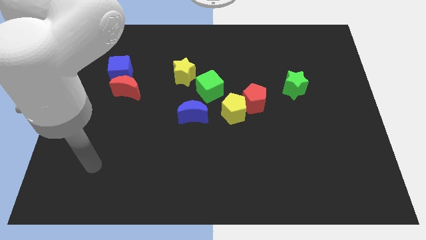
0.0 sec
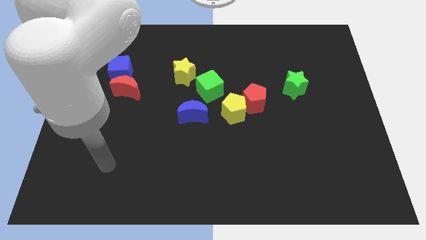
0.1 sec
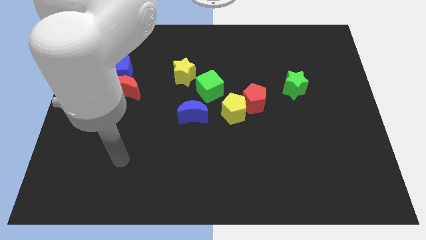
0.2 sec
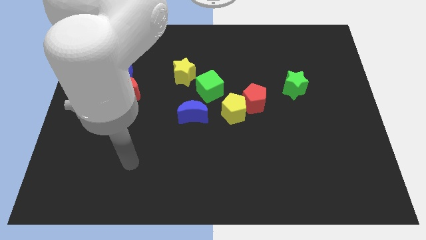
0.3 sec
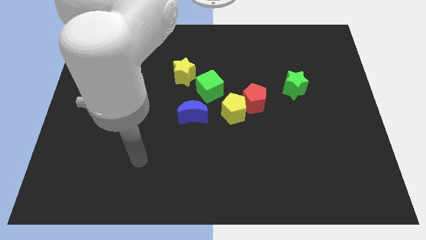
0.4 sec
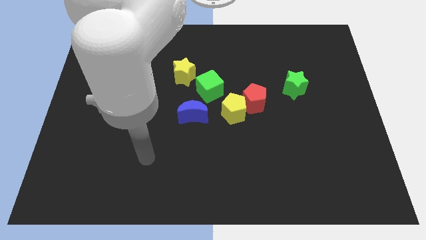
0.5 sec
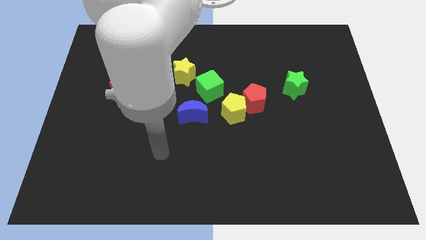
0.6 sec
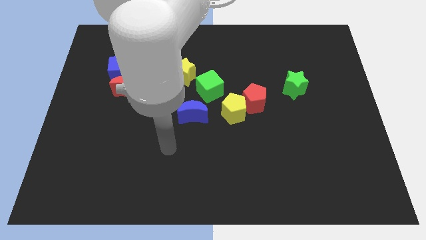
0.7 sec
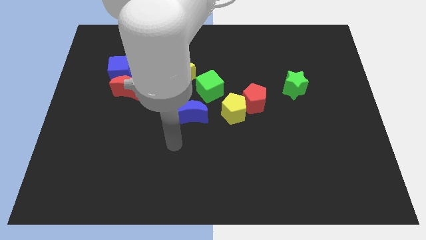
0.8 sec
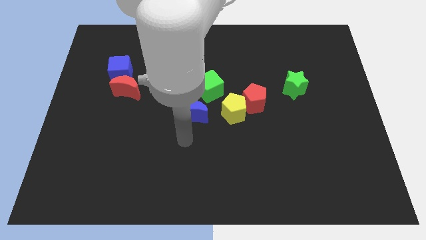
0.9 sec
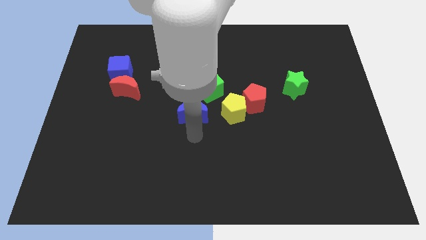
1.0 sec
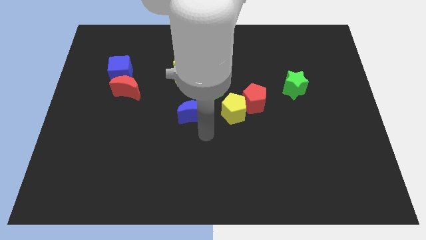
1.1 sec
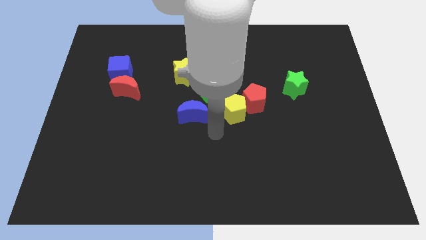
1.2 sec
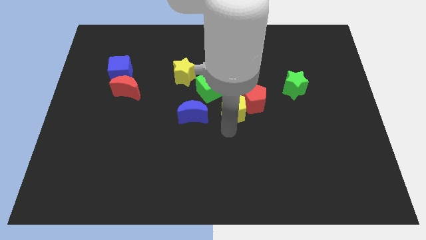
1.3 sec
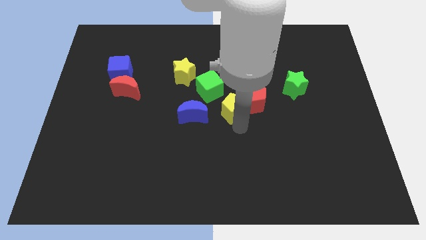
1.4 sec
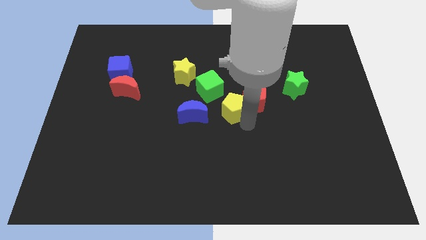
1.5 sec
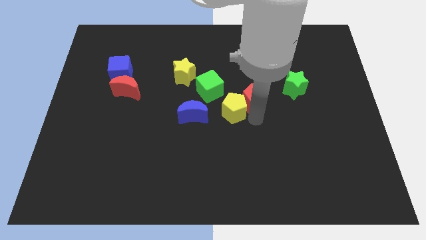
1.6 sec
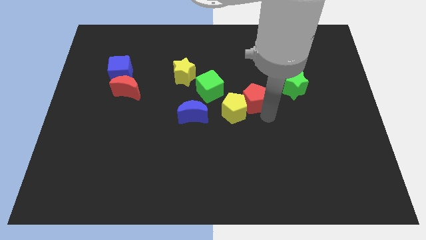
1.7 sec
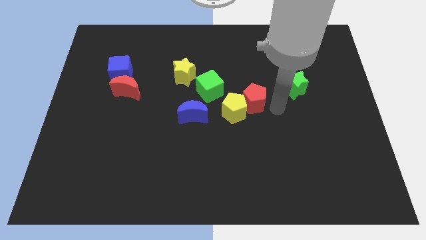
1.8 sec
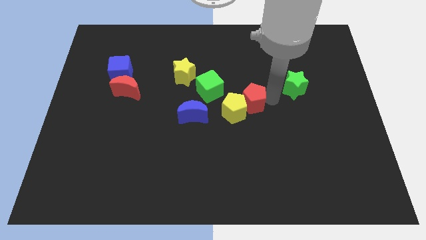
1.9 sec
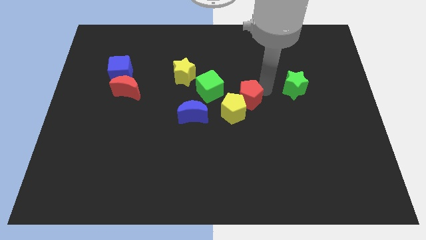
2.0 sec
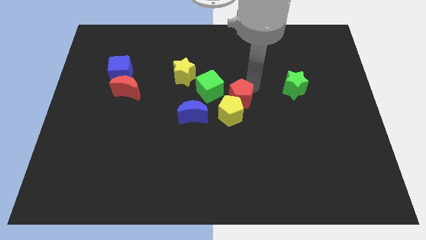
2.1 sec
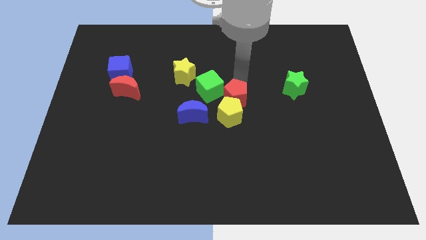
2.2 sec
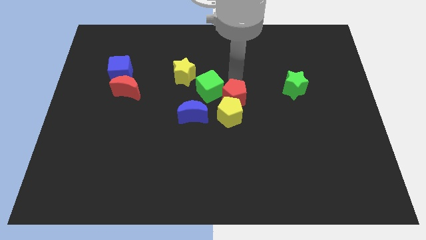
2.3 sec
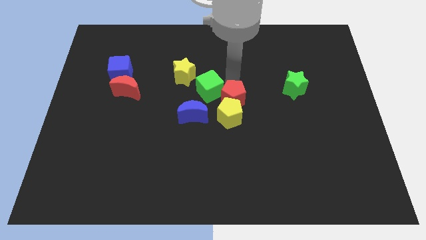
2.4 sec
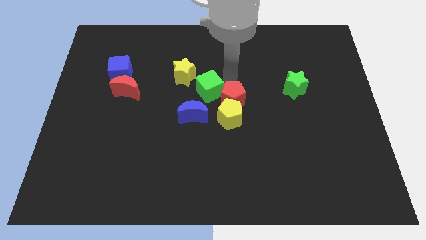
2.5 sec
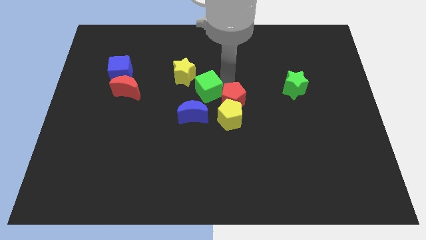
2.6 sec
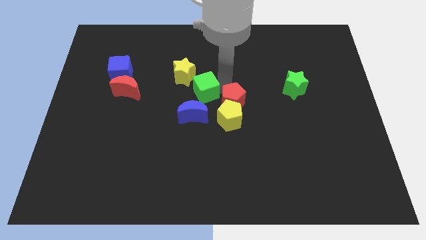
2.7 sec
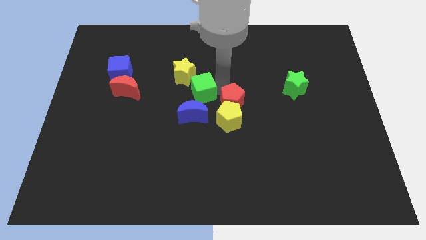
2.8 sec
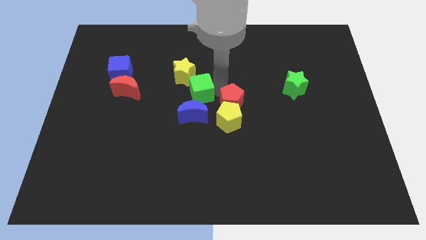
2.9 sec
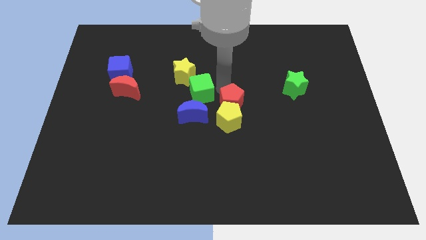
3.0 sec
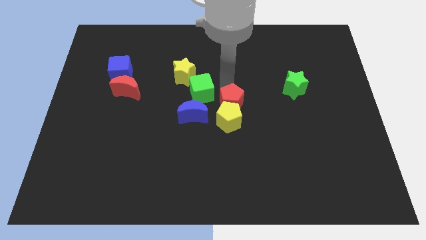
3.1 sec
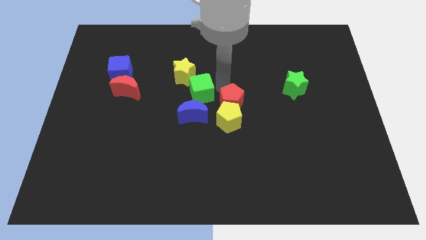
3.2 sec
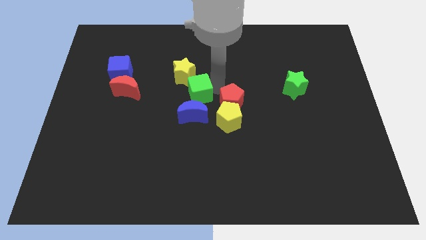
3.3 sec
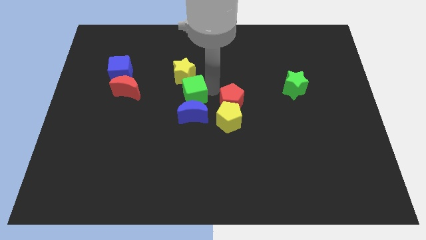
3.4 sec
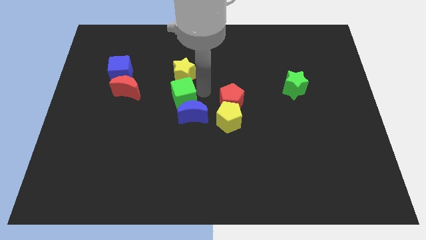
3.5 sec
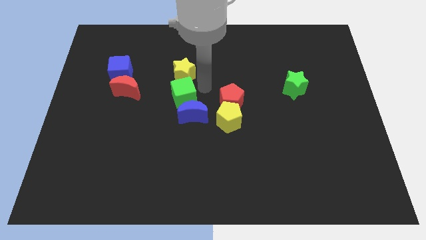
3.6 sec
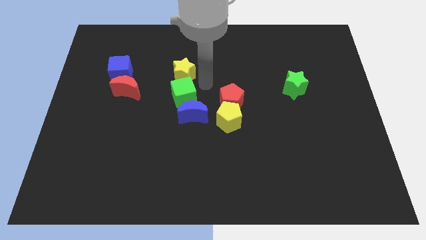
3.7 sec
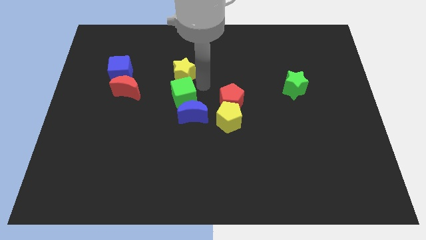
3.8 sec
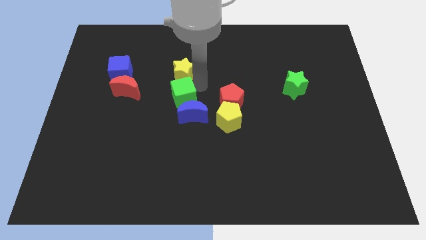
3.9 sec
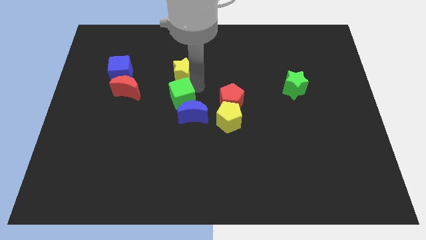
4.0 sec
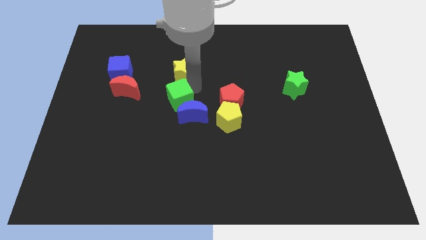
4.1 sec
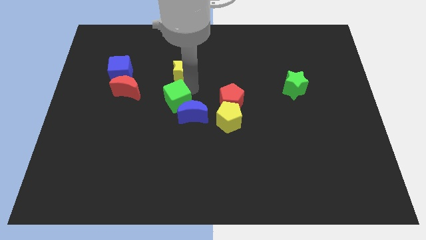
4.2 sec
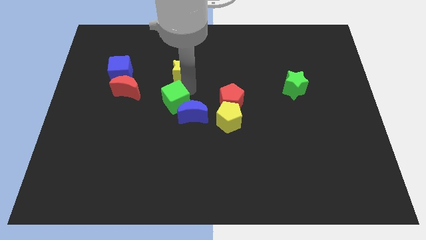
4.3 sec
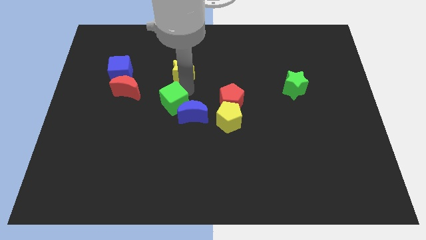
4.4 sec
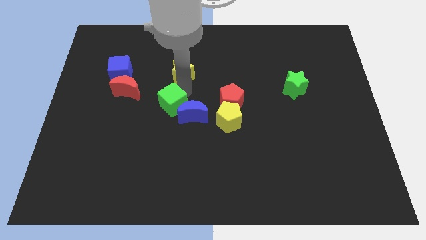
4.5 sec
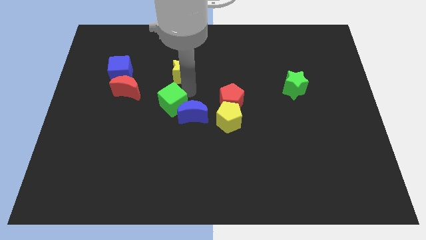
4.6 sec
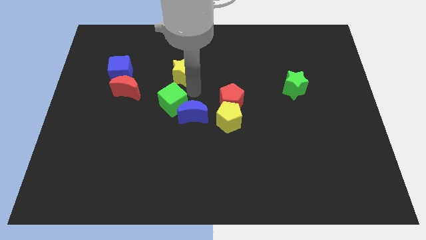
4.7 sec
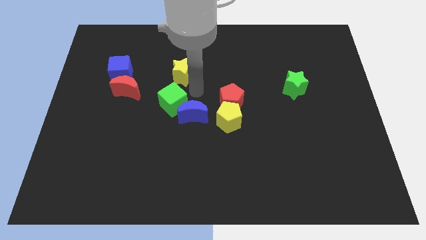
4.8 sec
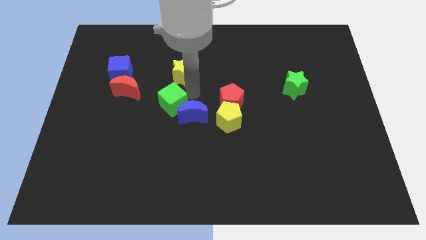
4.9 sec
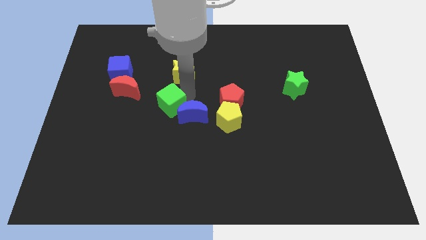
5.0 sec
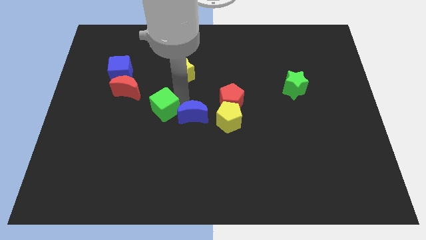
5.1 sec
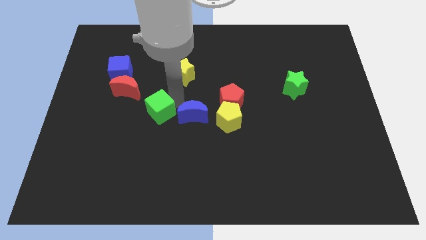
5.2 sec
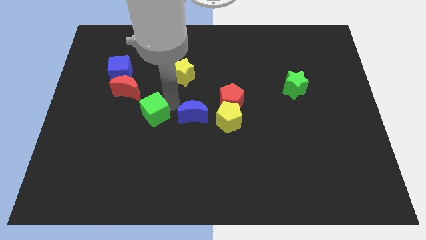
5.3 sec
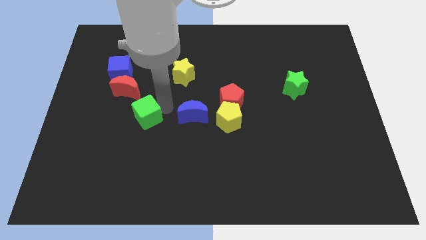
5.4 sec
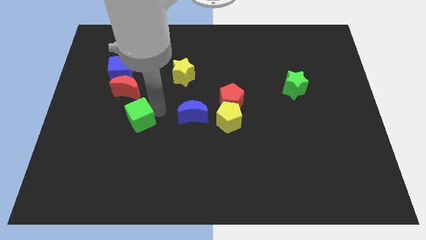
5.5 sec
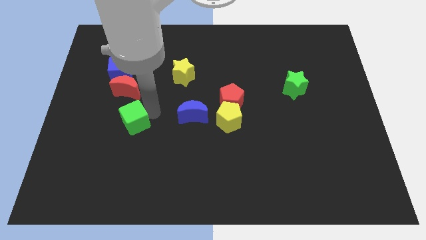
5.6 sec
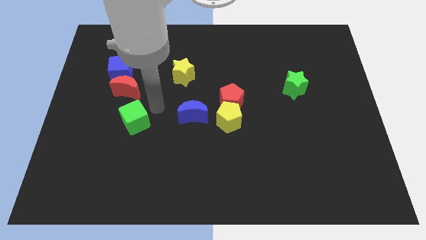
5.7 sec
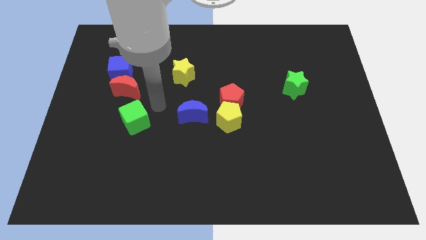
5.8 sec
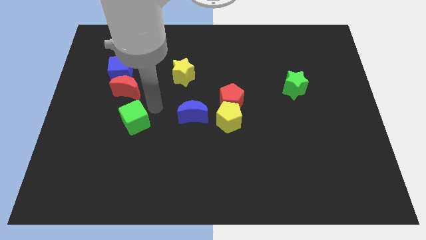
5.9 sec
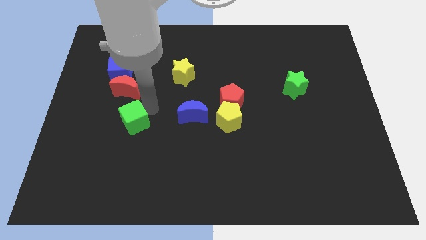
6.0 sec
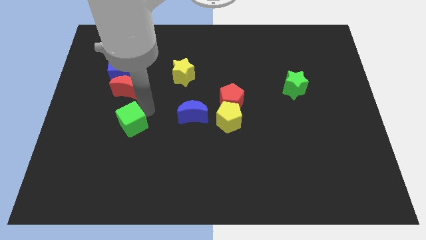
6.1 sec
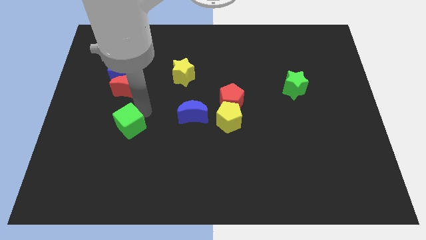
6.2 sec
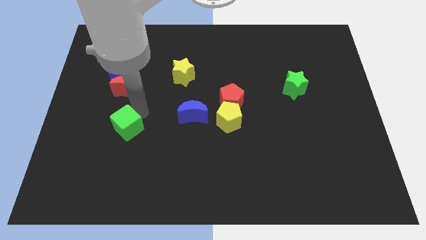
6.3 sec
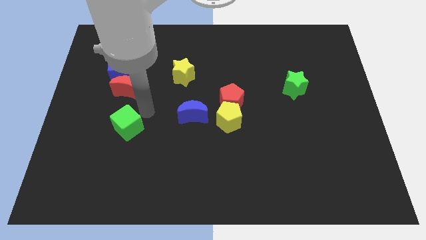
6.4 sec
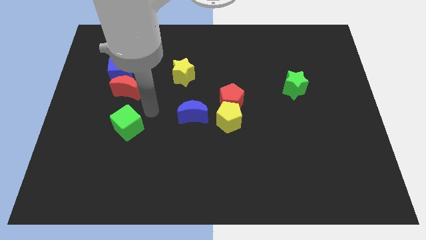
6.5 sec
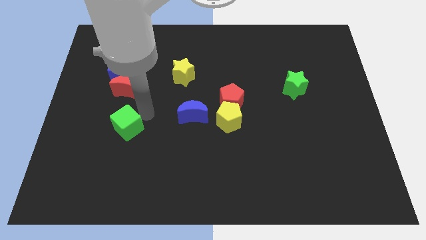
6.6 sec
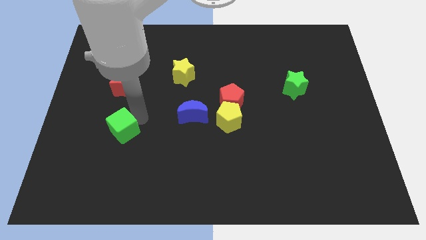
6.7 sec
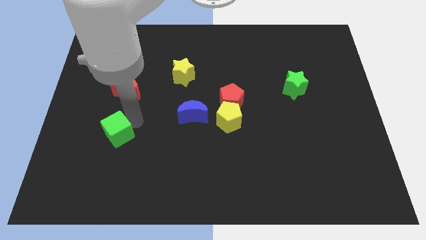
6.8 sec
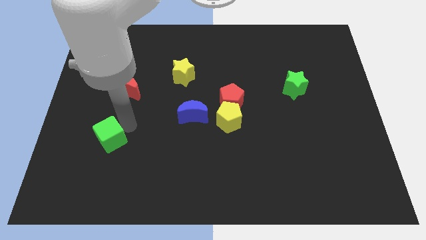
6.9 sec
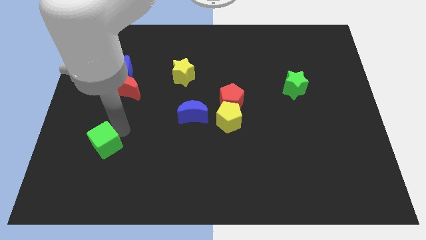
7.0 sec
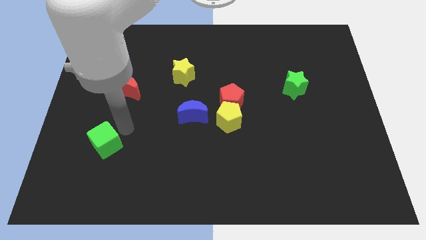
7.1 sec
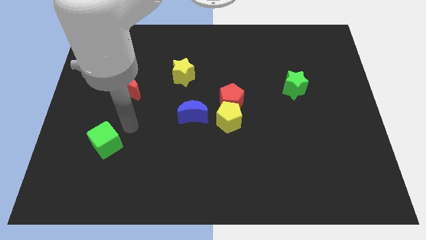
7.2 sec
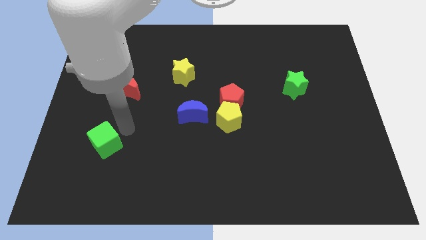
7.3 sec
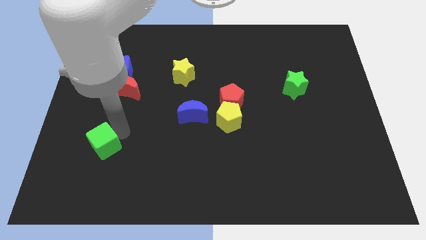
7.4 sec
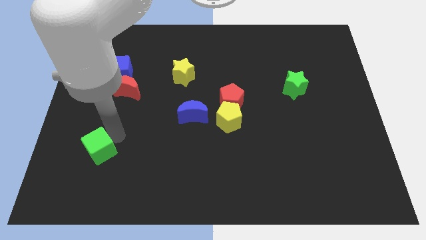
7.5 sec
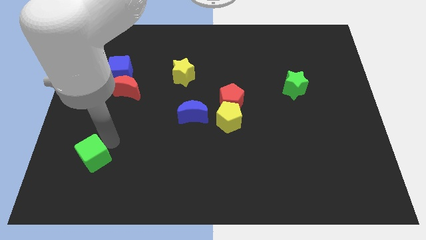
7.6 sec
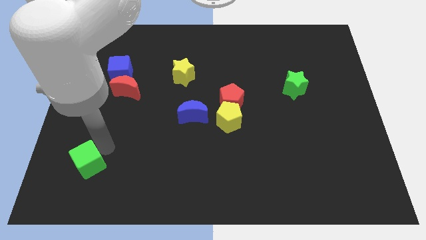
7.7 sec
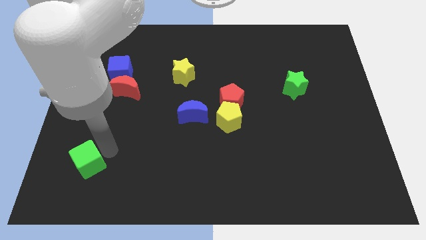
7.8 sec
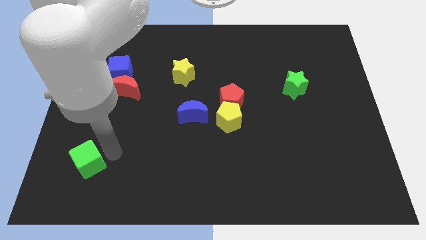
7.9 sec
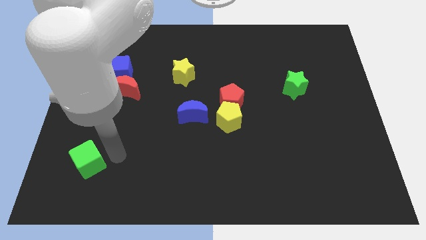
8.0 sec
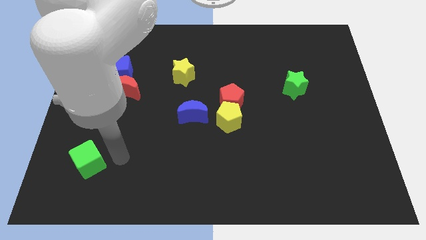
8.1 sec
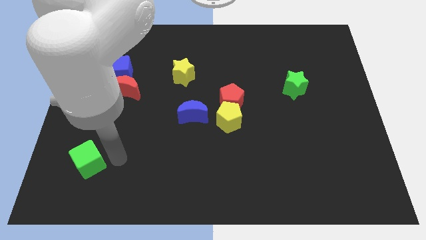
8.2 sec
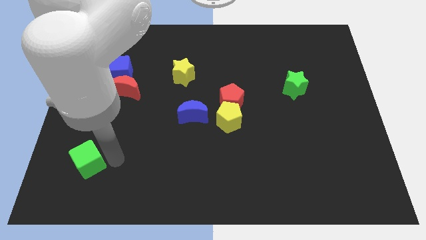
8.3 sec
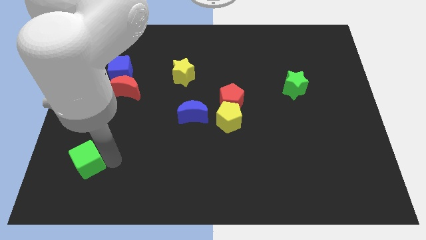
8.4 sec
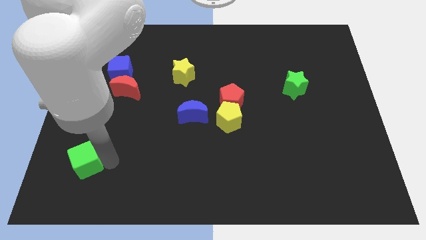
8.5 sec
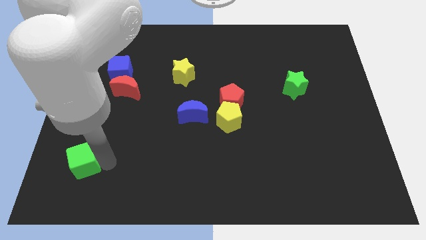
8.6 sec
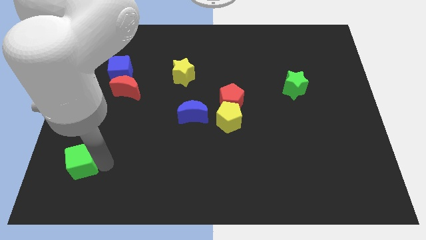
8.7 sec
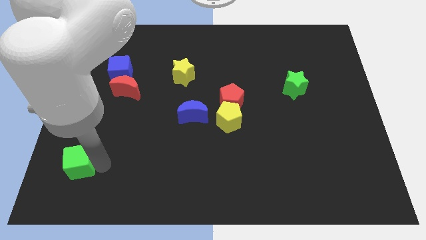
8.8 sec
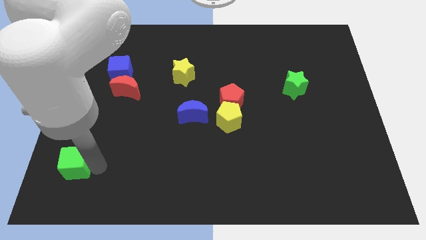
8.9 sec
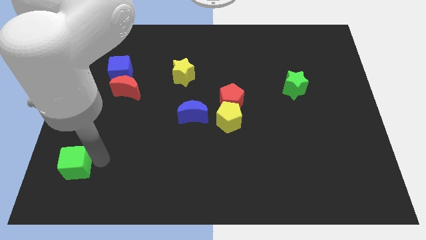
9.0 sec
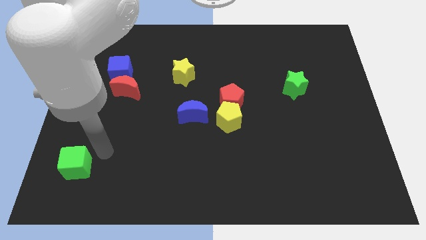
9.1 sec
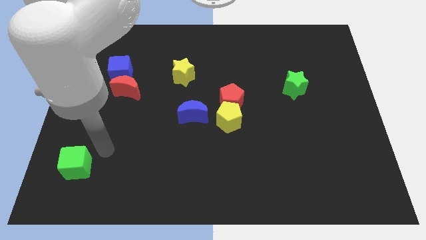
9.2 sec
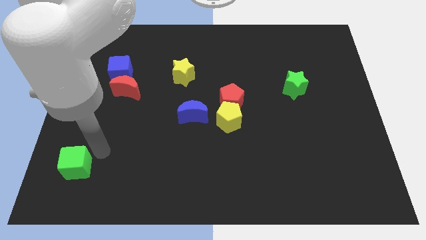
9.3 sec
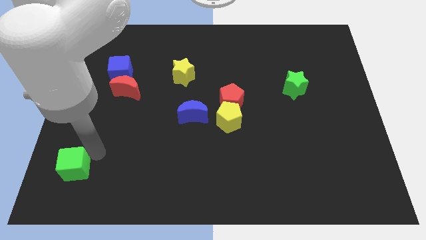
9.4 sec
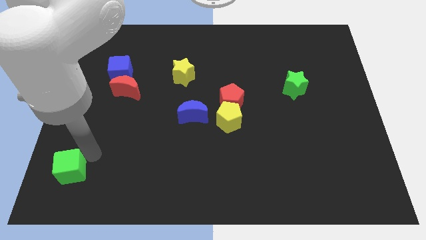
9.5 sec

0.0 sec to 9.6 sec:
slide the green cube to the lower left corner
